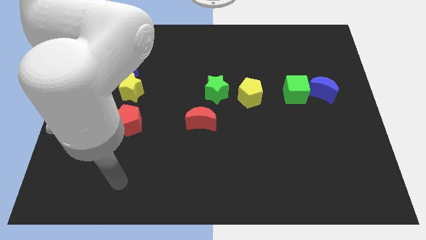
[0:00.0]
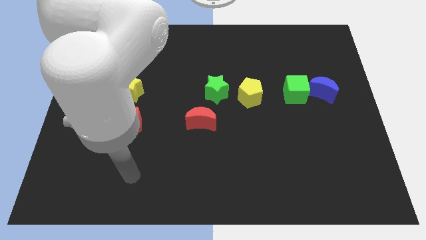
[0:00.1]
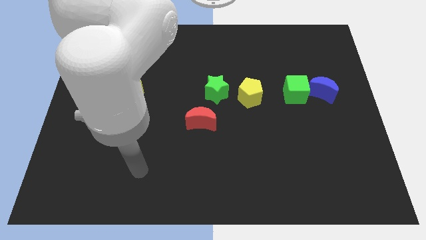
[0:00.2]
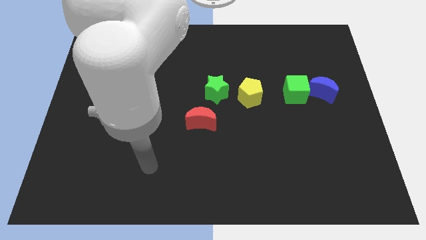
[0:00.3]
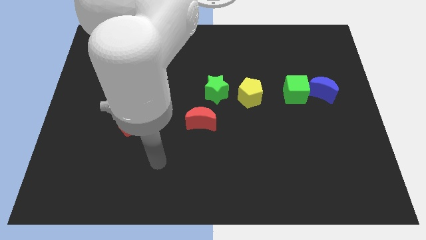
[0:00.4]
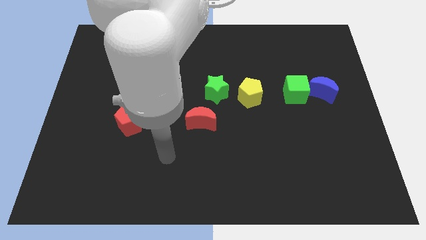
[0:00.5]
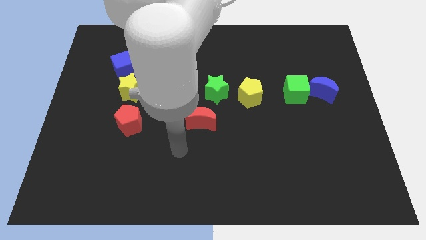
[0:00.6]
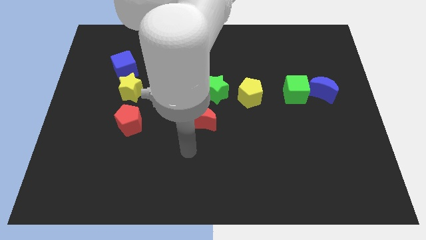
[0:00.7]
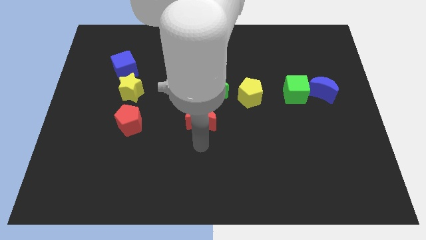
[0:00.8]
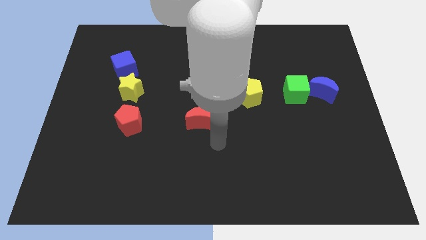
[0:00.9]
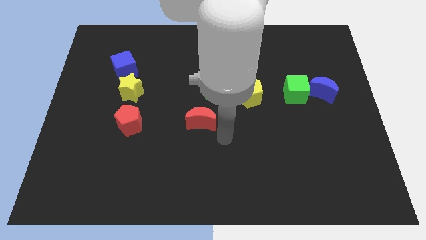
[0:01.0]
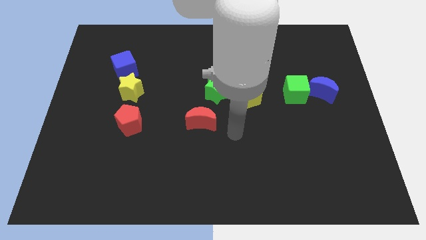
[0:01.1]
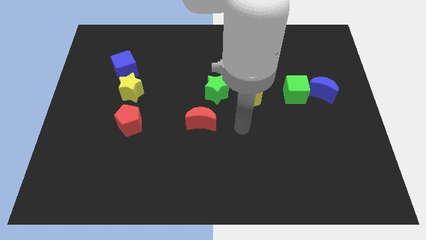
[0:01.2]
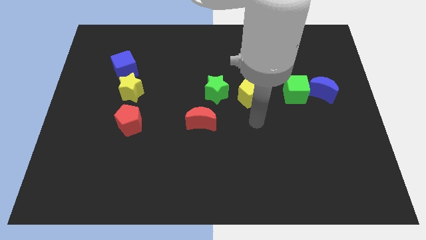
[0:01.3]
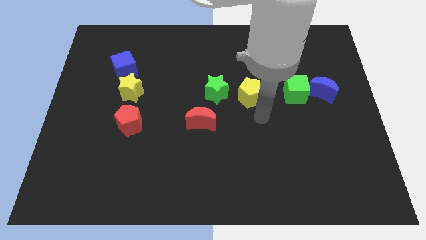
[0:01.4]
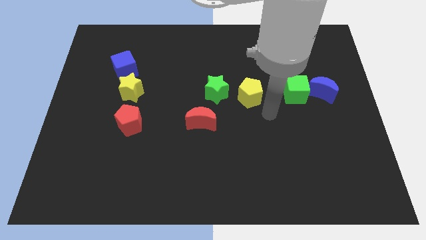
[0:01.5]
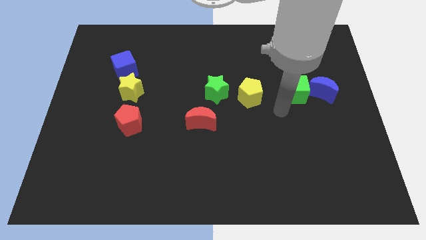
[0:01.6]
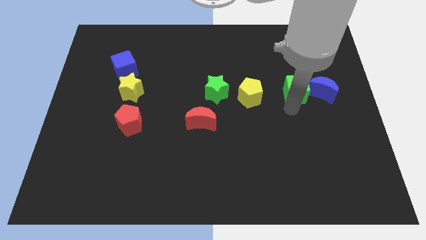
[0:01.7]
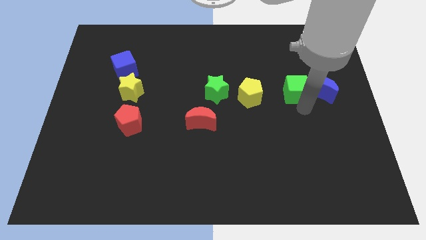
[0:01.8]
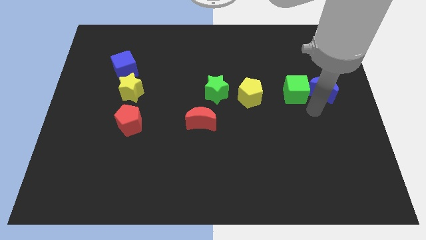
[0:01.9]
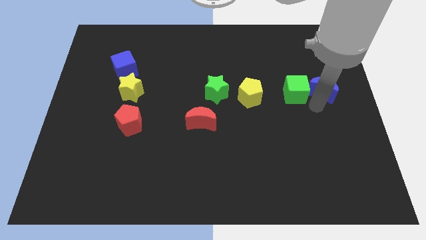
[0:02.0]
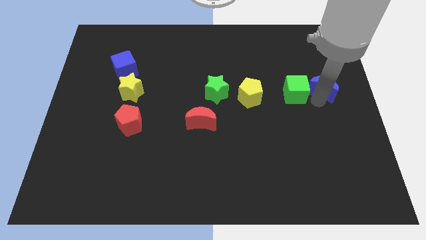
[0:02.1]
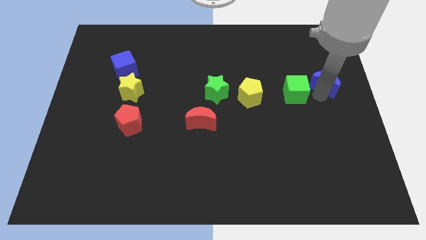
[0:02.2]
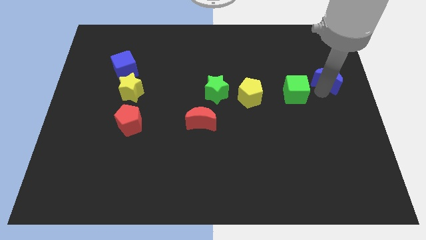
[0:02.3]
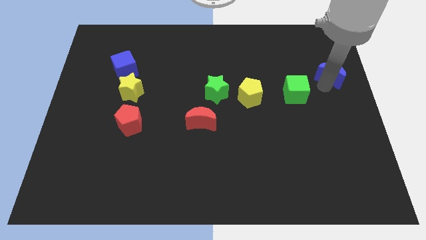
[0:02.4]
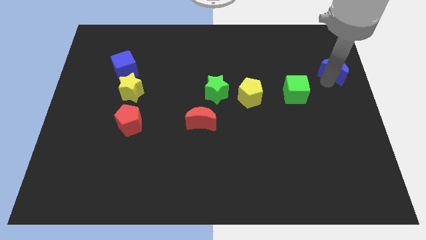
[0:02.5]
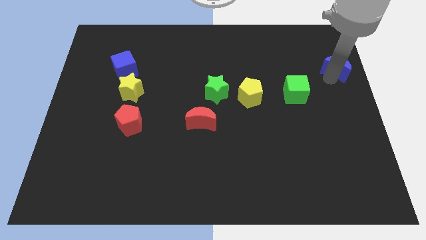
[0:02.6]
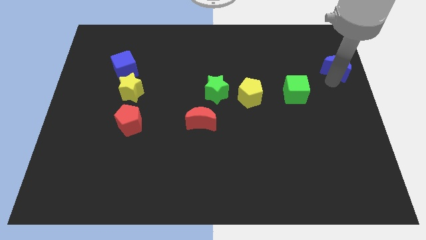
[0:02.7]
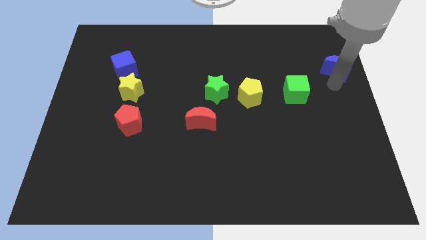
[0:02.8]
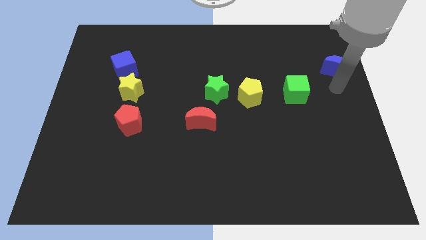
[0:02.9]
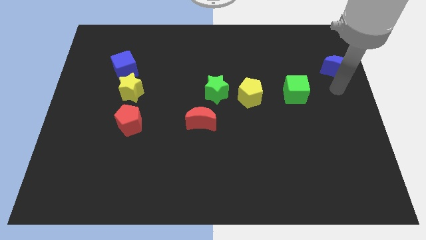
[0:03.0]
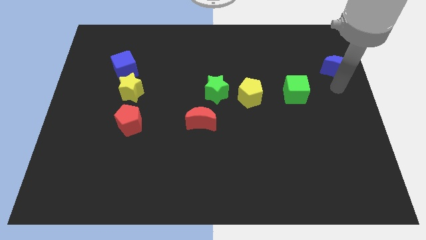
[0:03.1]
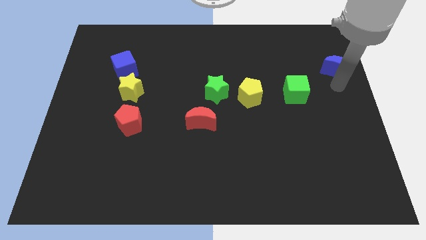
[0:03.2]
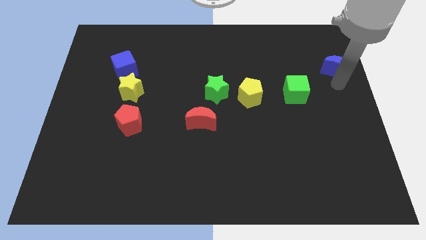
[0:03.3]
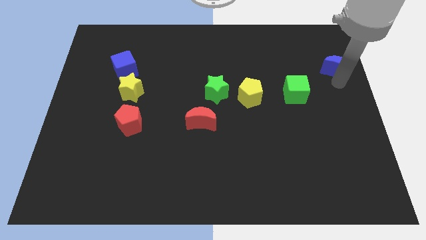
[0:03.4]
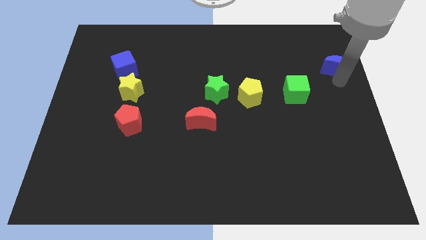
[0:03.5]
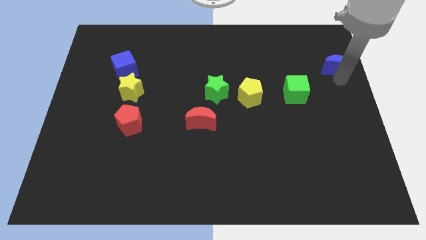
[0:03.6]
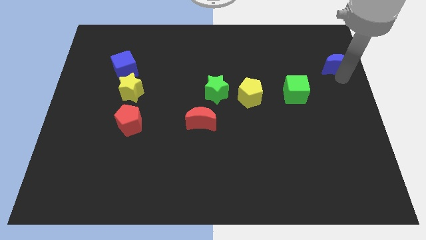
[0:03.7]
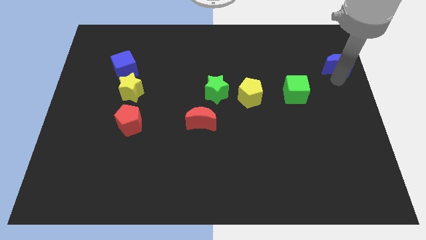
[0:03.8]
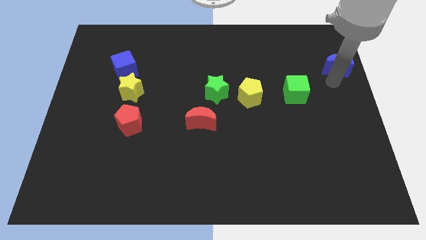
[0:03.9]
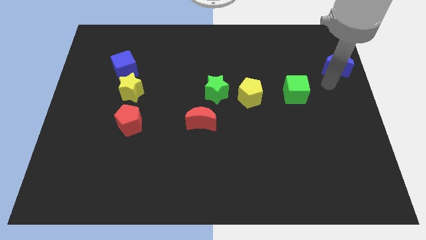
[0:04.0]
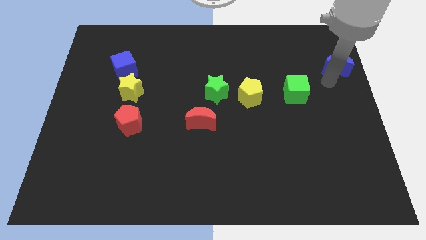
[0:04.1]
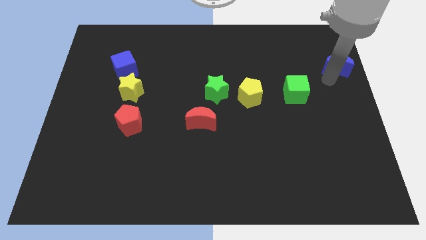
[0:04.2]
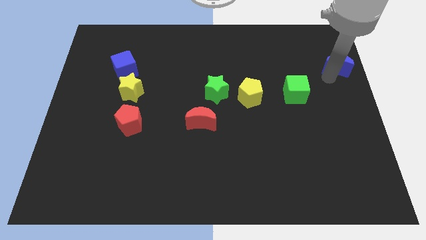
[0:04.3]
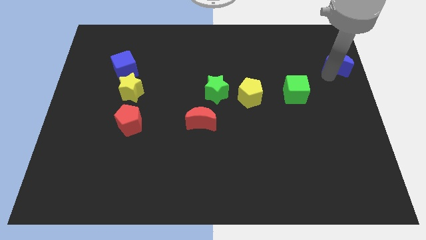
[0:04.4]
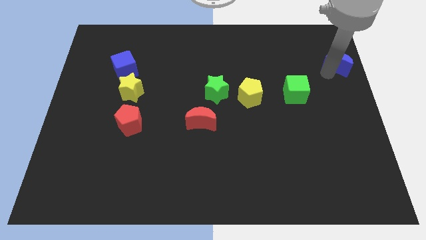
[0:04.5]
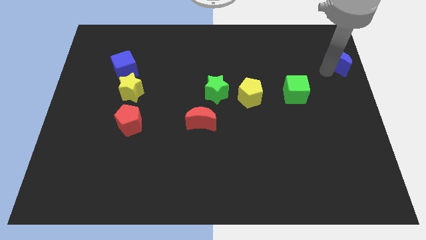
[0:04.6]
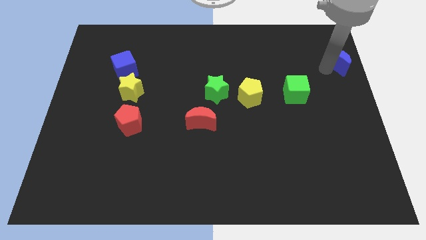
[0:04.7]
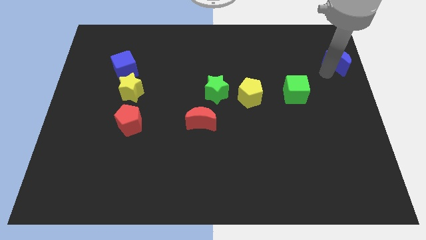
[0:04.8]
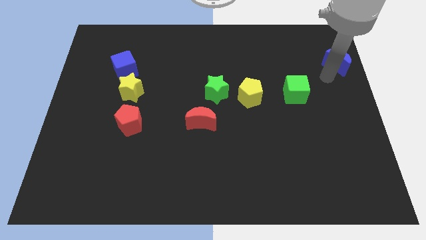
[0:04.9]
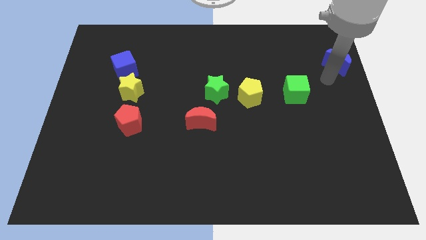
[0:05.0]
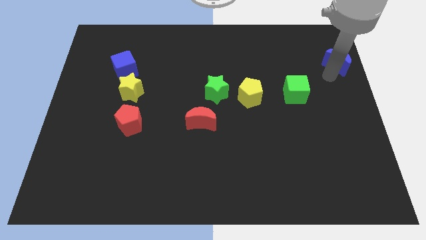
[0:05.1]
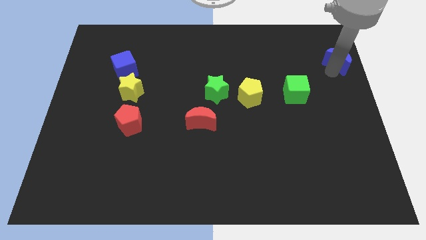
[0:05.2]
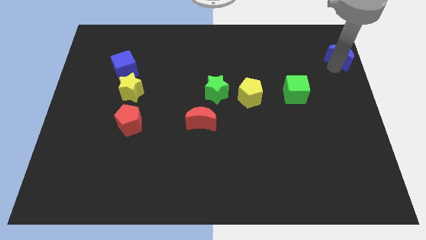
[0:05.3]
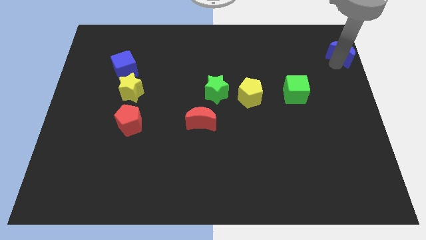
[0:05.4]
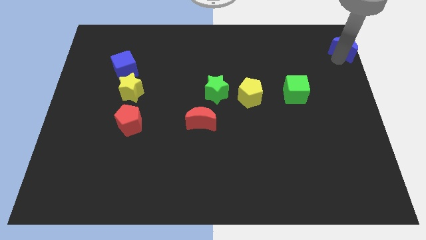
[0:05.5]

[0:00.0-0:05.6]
slide the blue moon to the top right of the board
